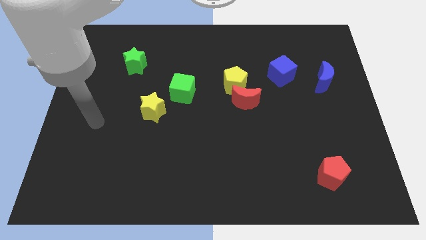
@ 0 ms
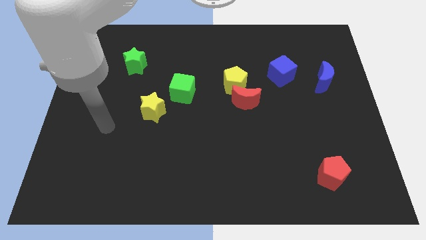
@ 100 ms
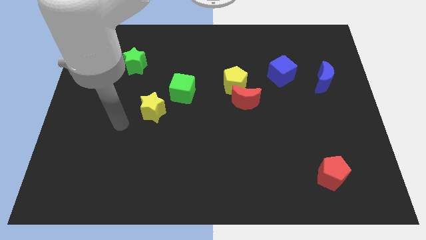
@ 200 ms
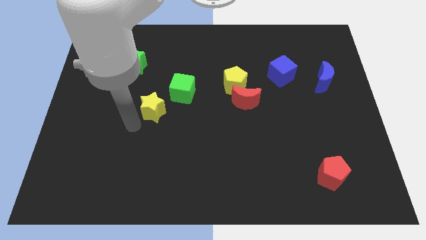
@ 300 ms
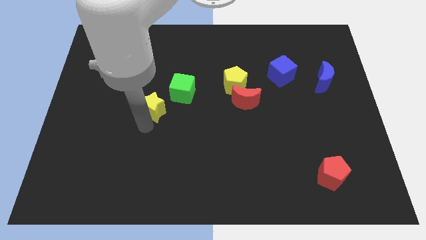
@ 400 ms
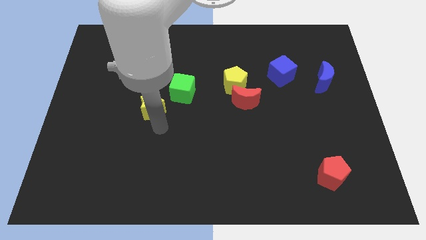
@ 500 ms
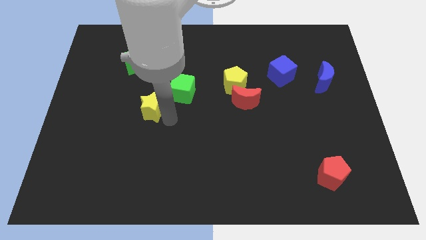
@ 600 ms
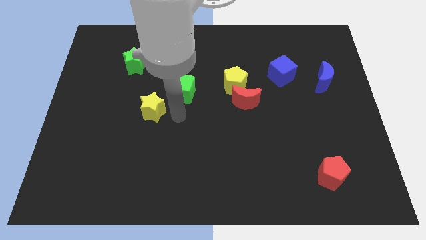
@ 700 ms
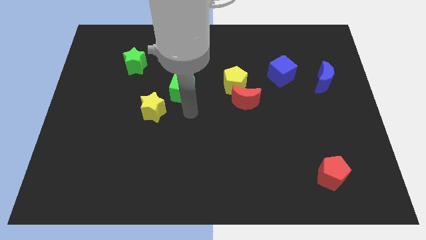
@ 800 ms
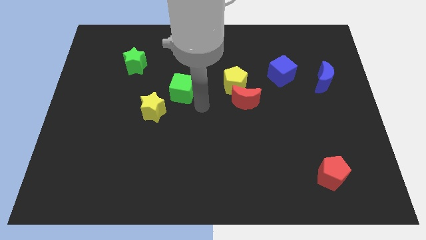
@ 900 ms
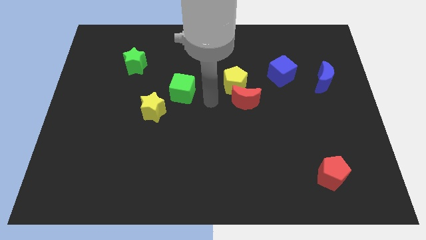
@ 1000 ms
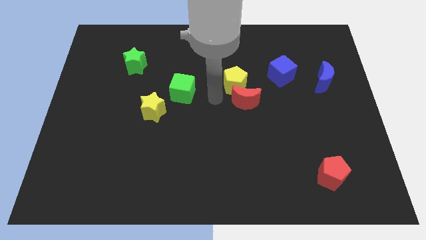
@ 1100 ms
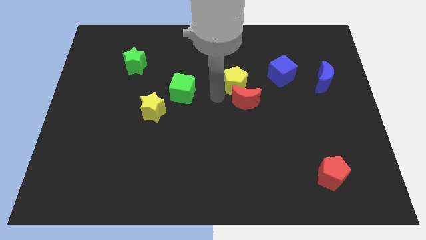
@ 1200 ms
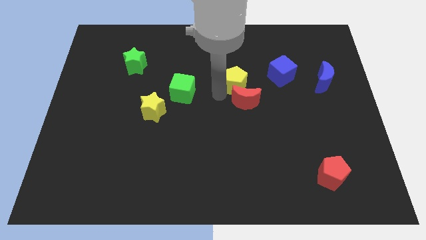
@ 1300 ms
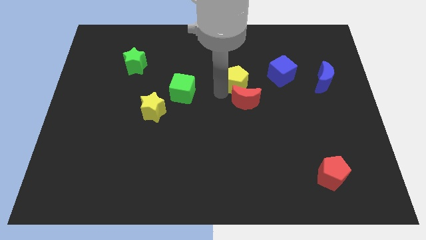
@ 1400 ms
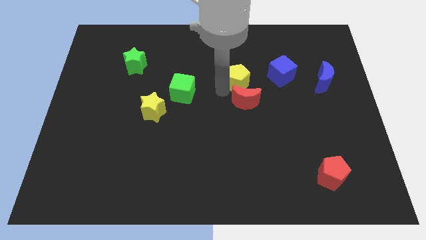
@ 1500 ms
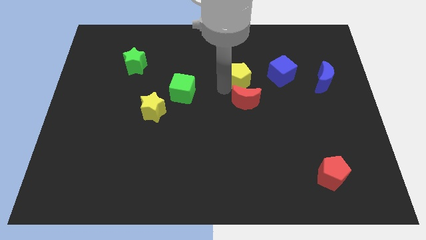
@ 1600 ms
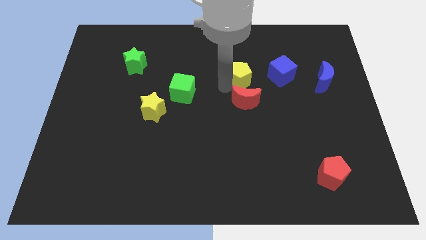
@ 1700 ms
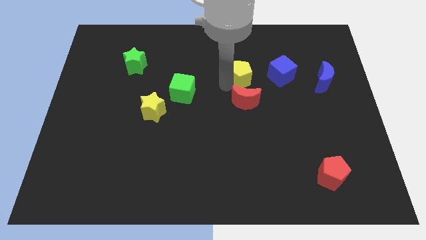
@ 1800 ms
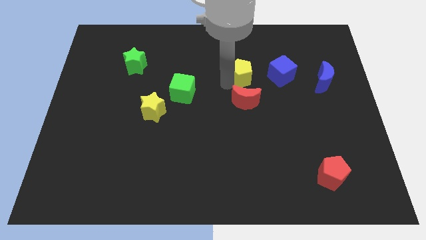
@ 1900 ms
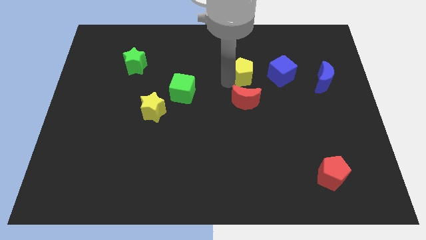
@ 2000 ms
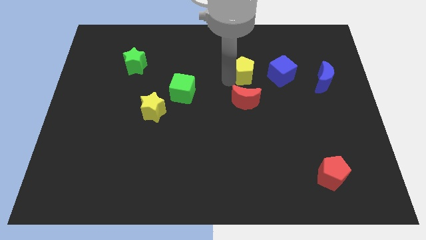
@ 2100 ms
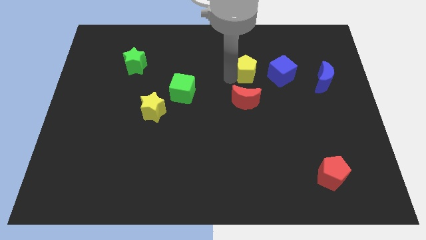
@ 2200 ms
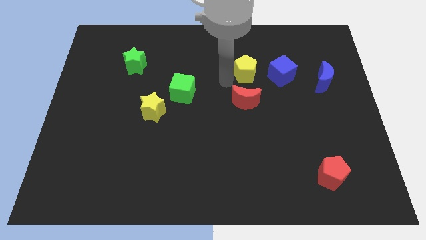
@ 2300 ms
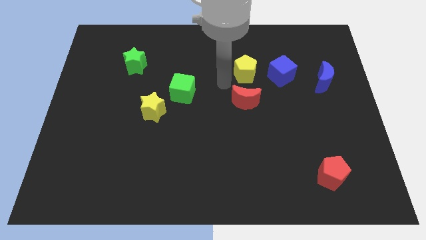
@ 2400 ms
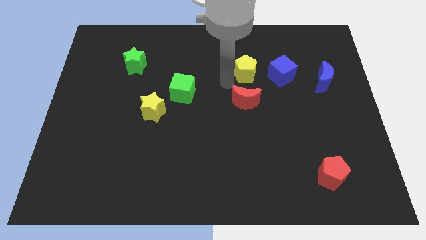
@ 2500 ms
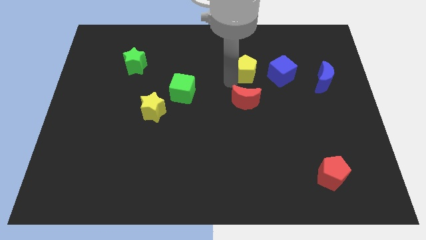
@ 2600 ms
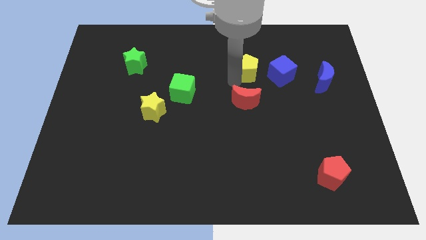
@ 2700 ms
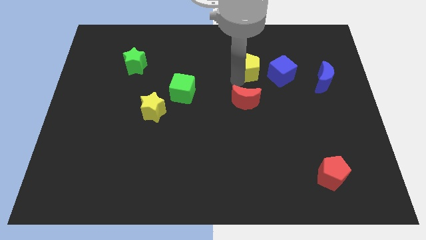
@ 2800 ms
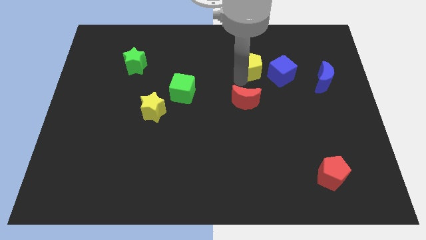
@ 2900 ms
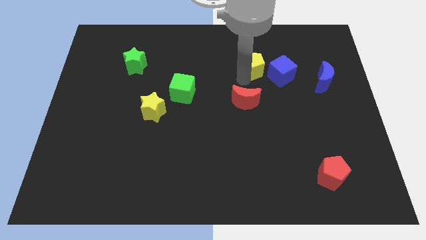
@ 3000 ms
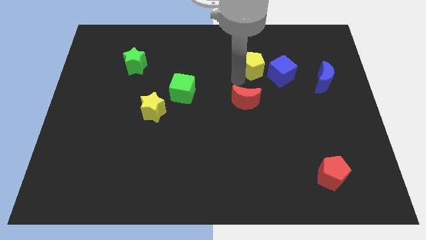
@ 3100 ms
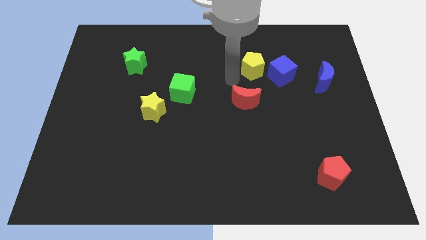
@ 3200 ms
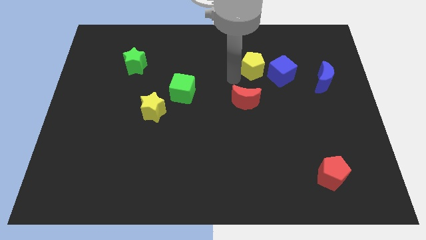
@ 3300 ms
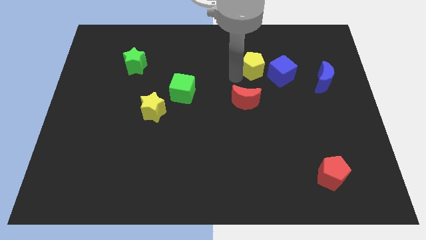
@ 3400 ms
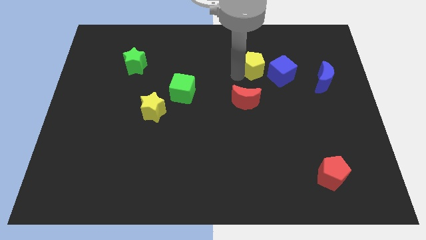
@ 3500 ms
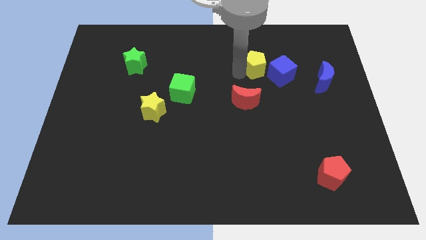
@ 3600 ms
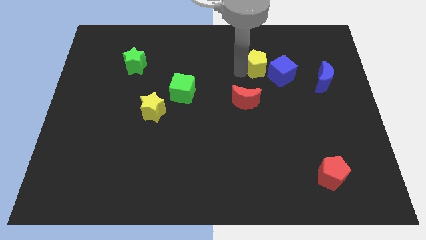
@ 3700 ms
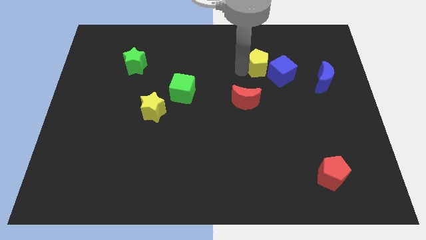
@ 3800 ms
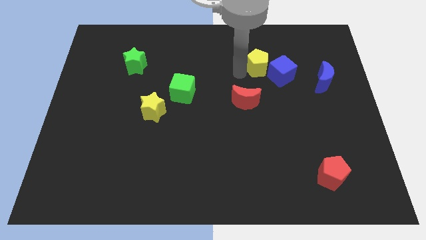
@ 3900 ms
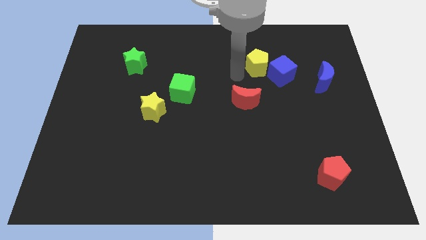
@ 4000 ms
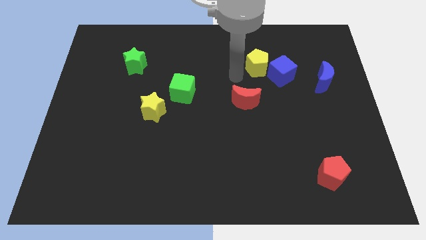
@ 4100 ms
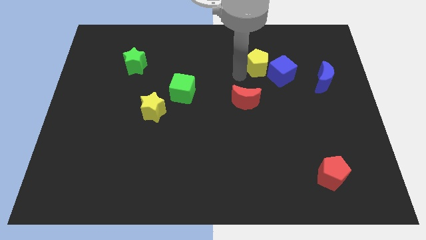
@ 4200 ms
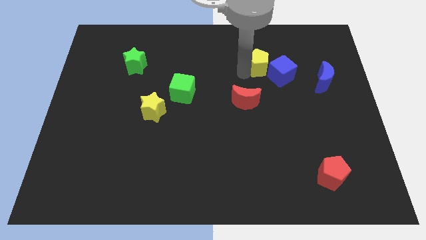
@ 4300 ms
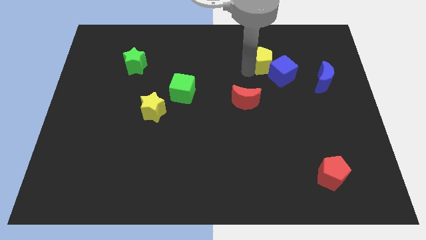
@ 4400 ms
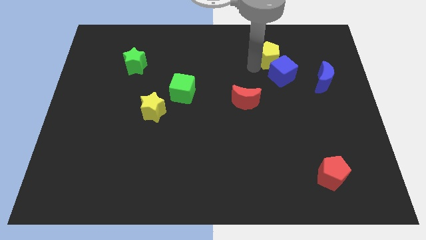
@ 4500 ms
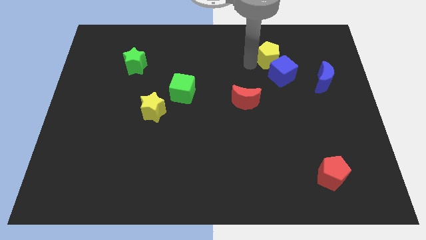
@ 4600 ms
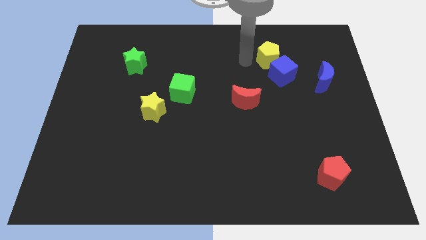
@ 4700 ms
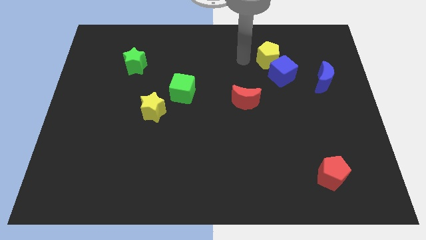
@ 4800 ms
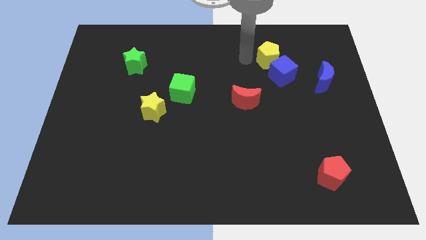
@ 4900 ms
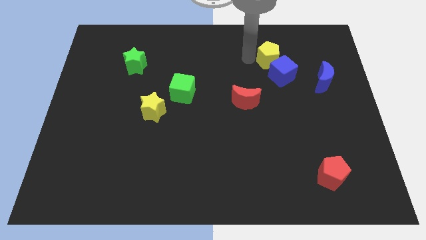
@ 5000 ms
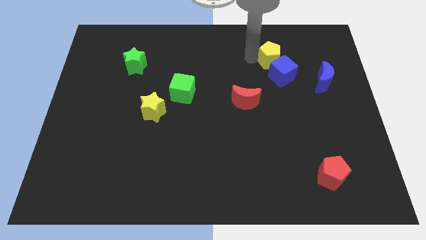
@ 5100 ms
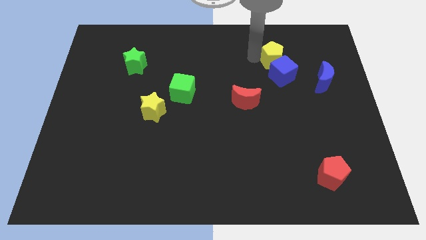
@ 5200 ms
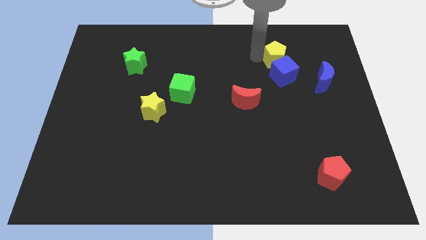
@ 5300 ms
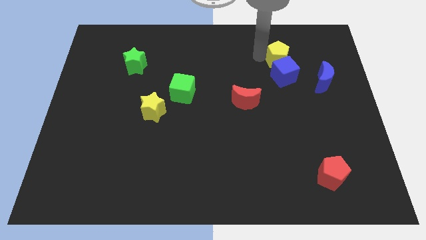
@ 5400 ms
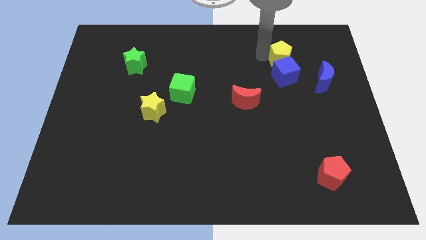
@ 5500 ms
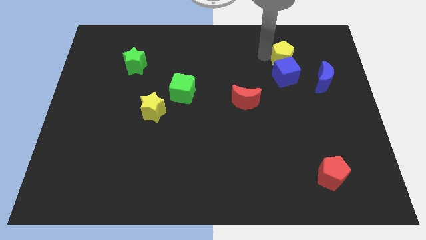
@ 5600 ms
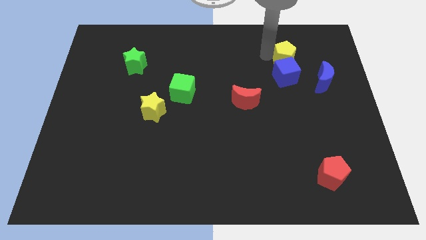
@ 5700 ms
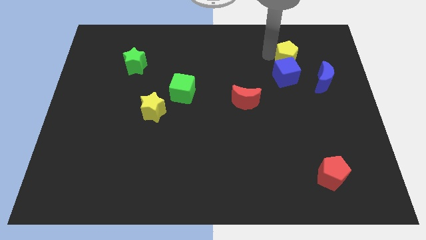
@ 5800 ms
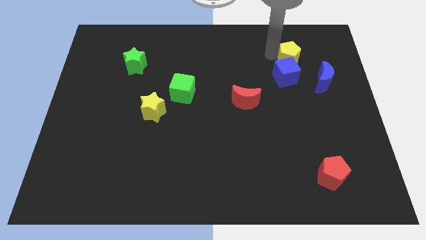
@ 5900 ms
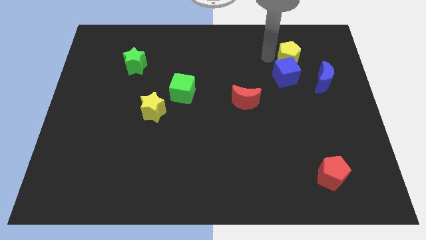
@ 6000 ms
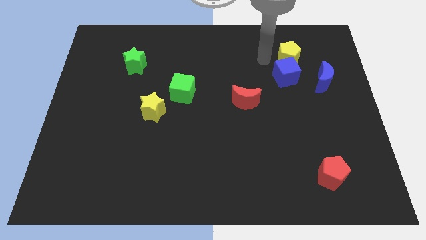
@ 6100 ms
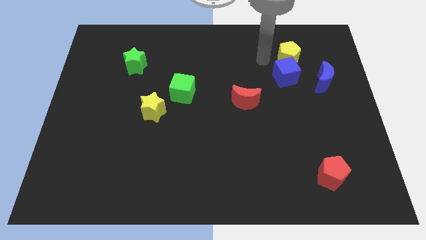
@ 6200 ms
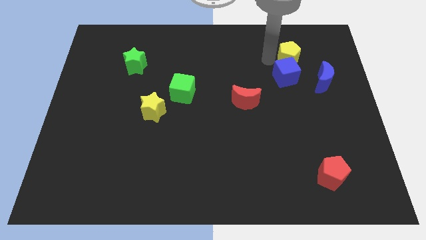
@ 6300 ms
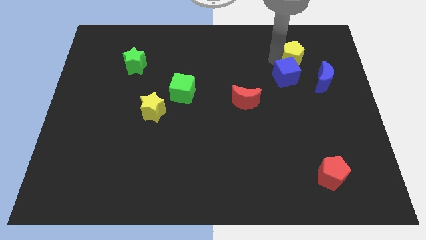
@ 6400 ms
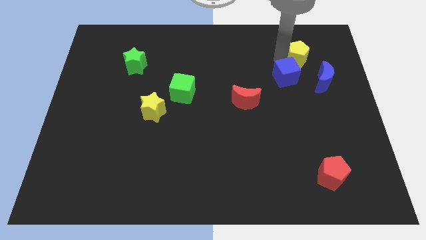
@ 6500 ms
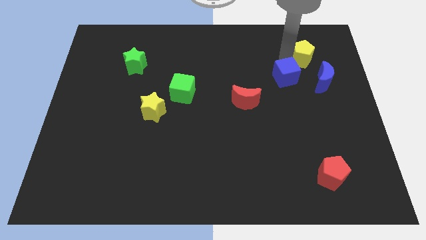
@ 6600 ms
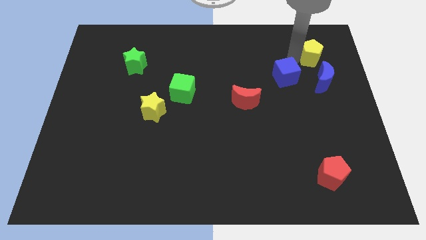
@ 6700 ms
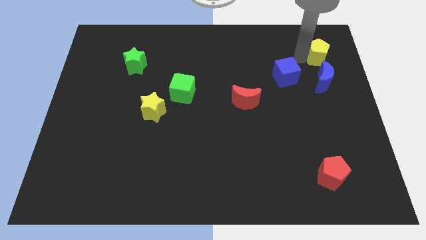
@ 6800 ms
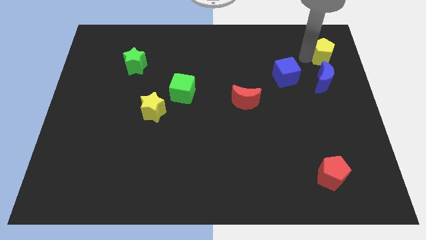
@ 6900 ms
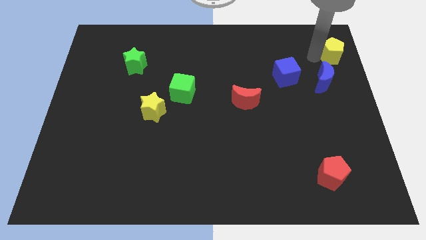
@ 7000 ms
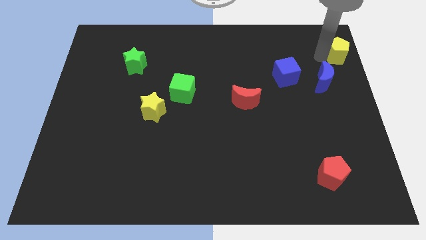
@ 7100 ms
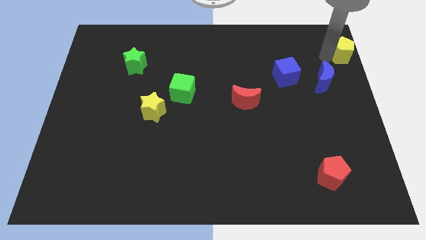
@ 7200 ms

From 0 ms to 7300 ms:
put the yellow pentagon to the top right
